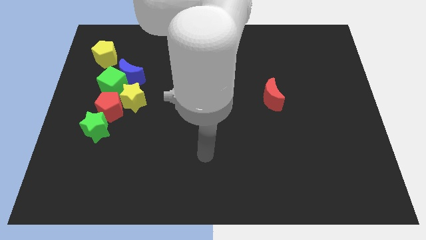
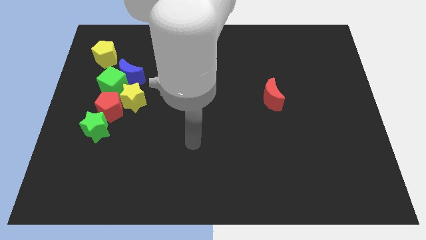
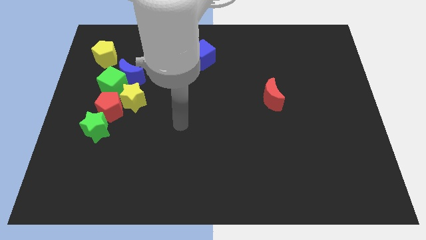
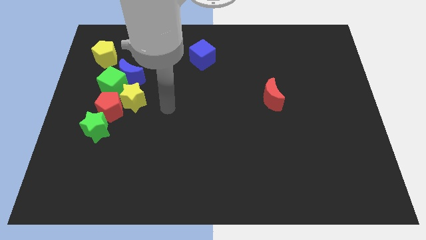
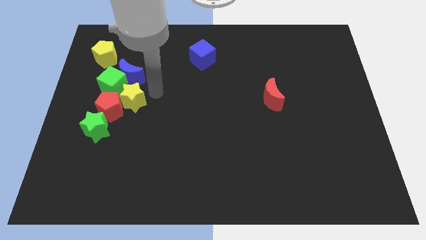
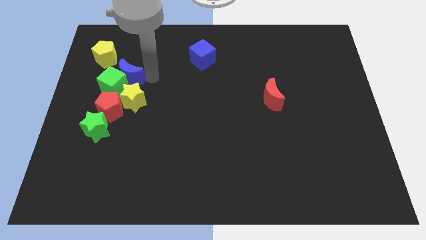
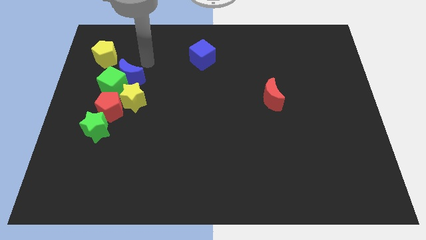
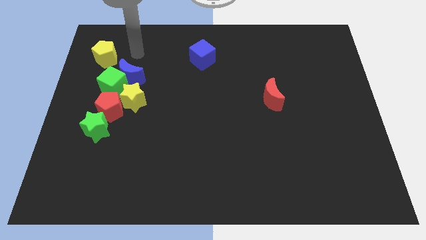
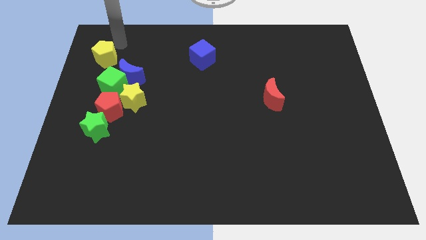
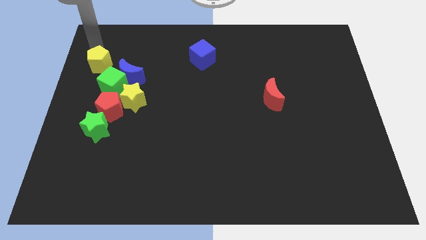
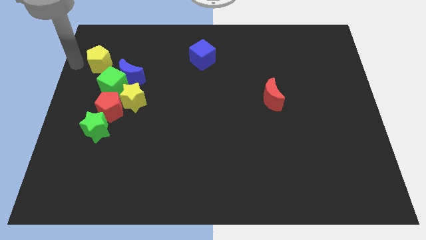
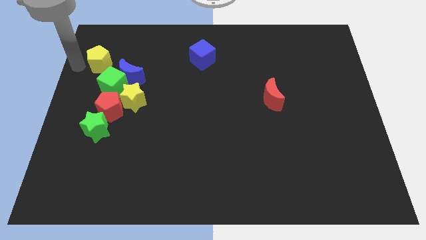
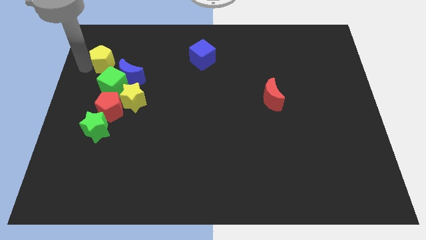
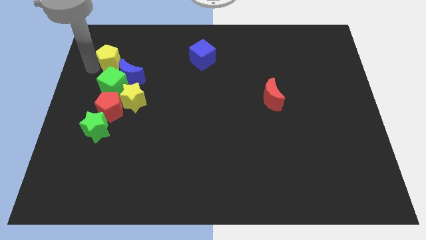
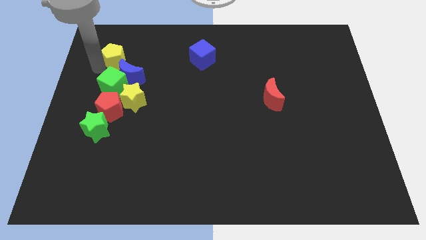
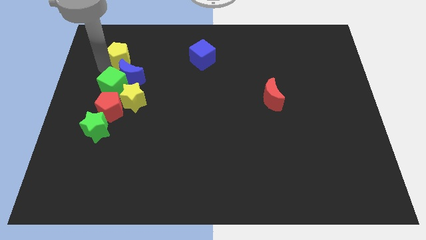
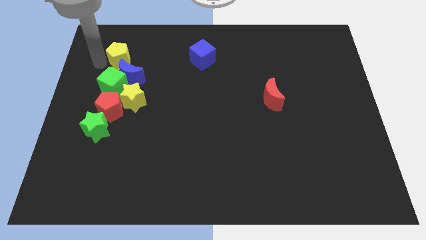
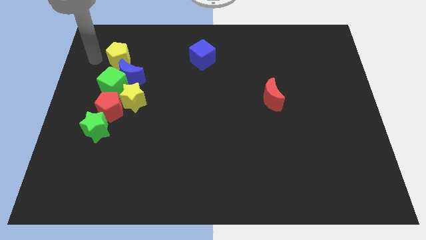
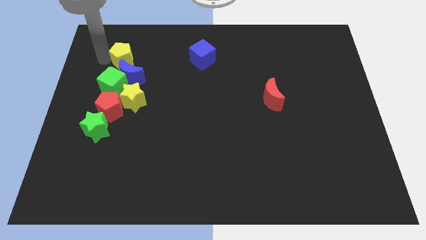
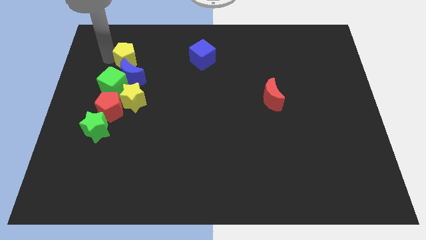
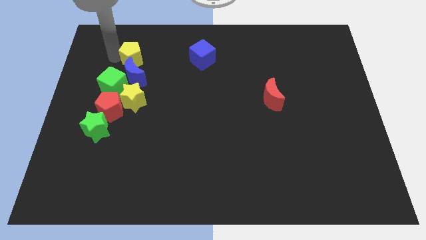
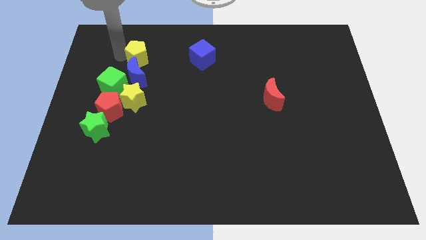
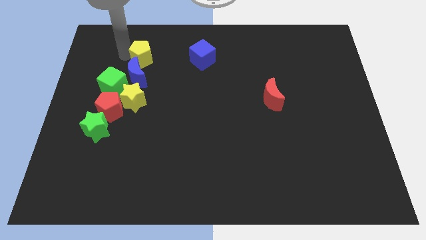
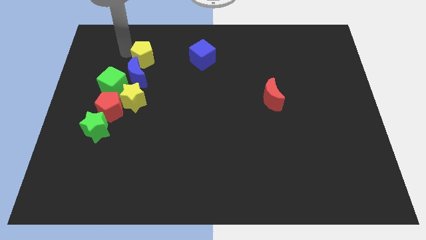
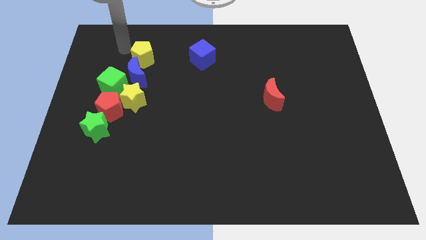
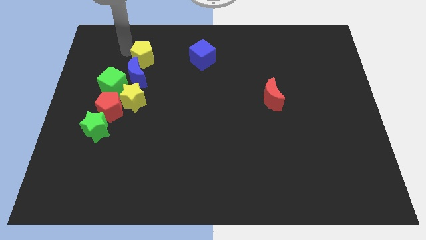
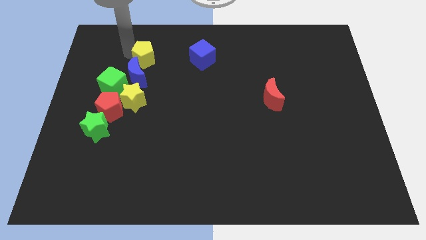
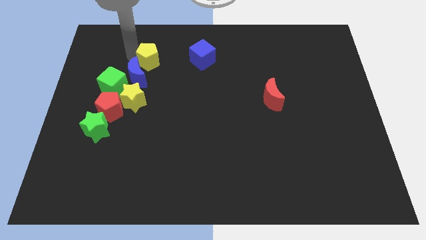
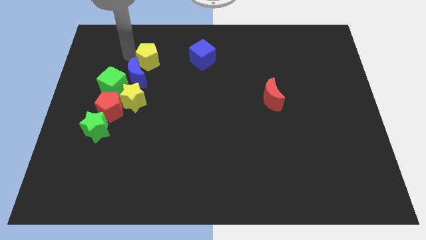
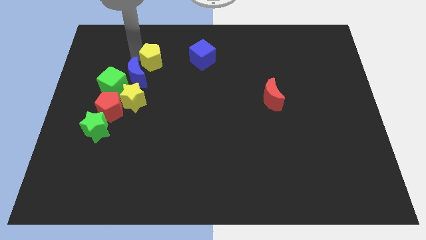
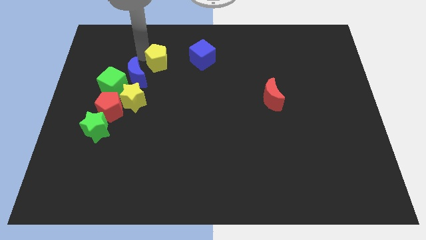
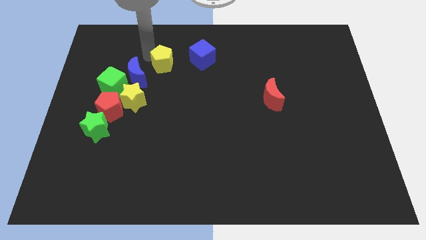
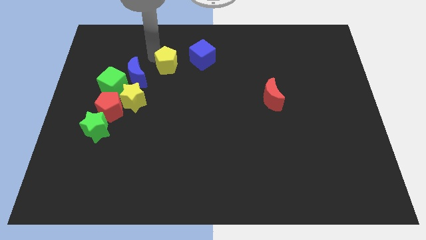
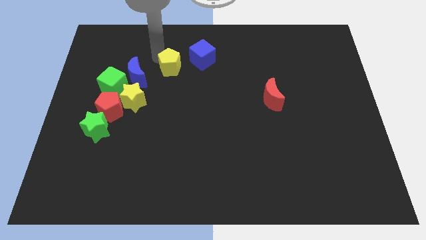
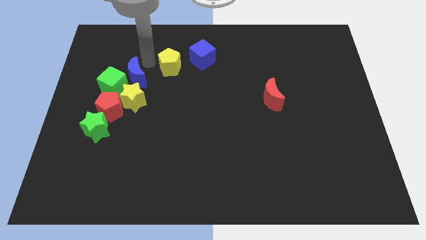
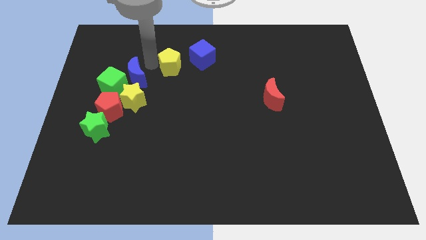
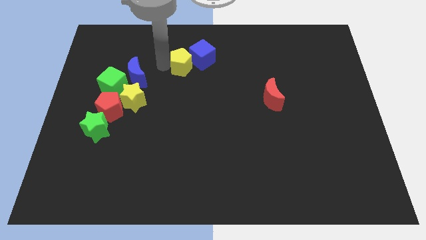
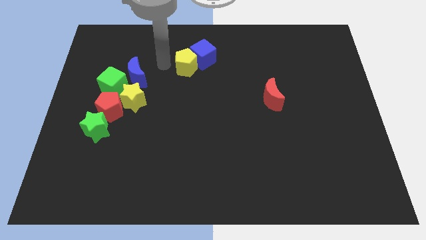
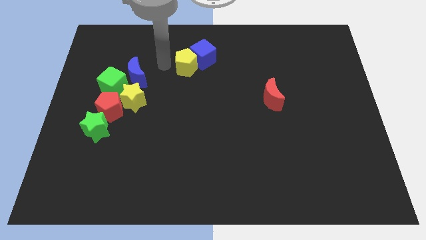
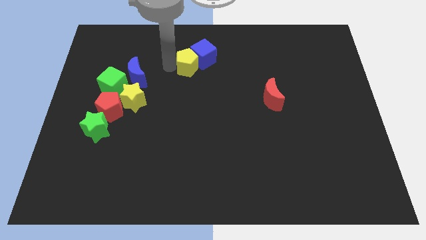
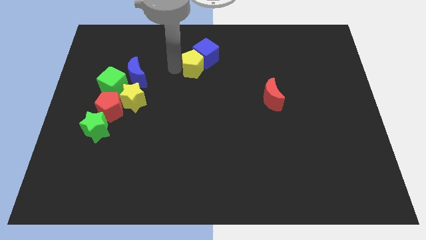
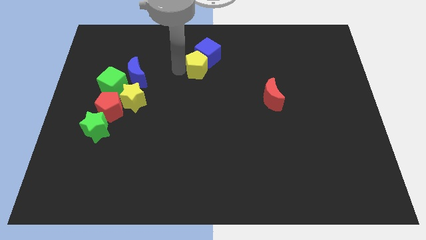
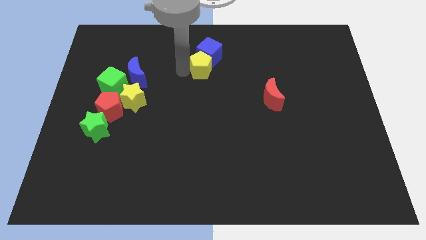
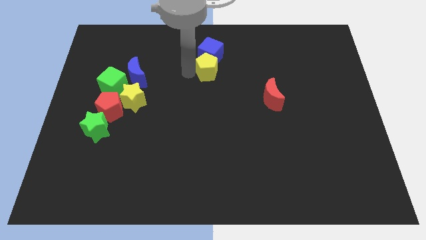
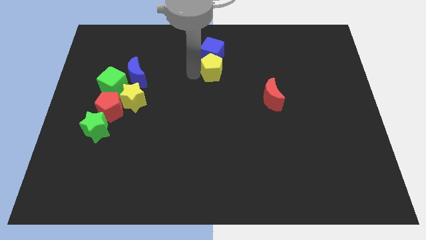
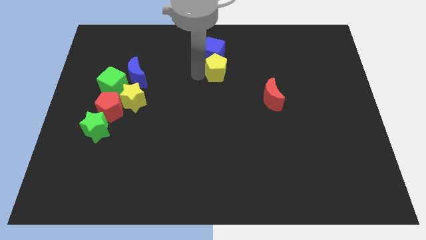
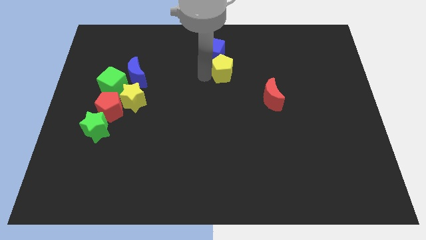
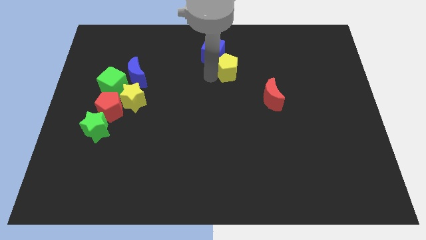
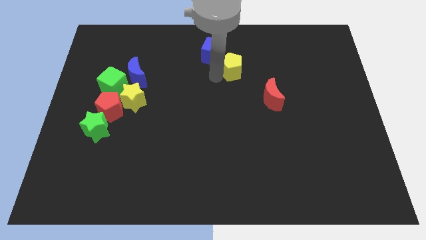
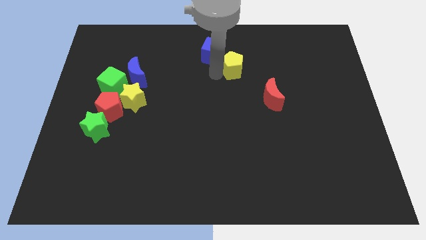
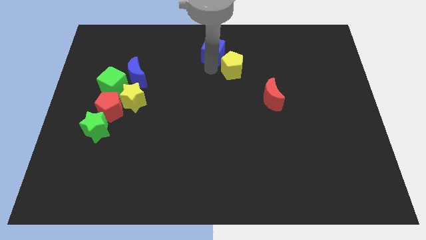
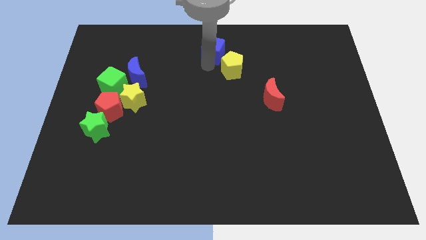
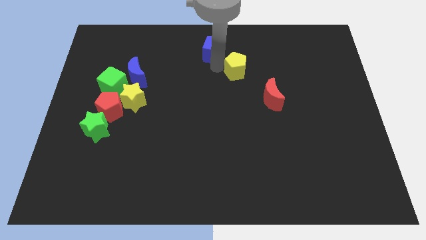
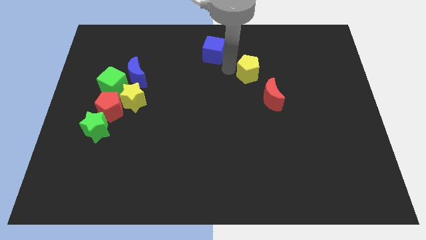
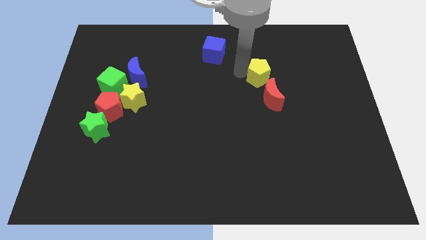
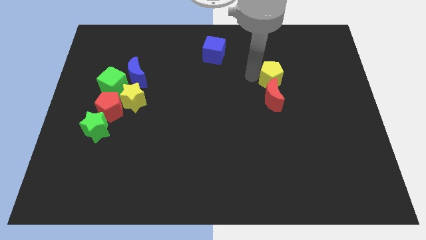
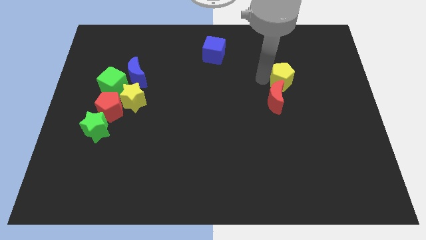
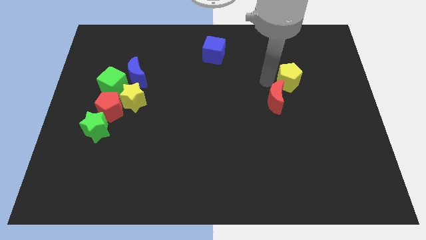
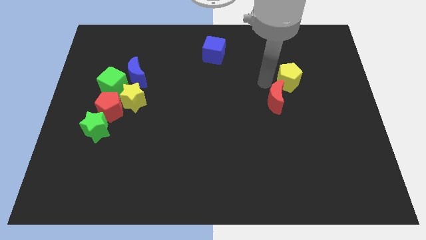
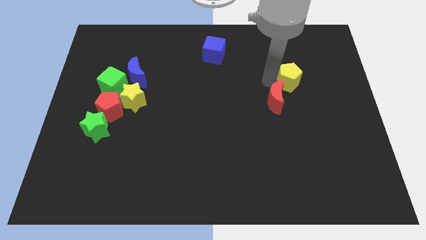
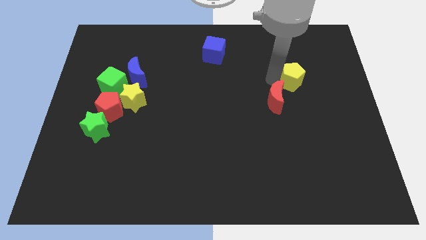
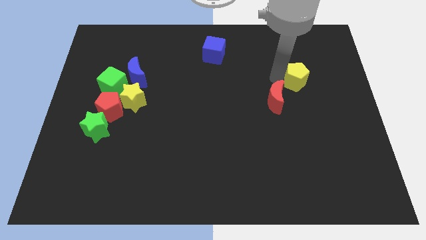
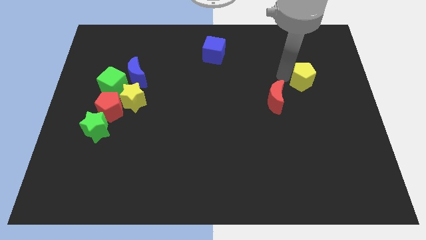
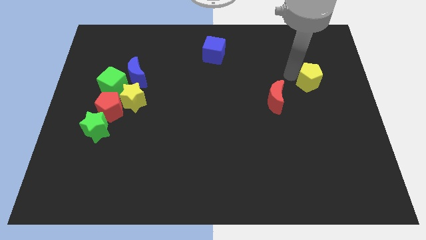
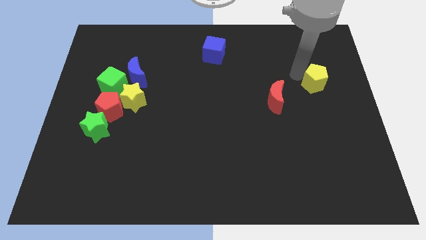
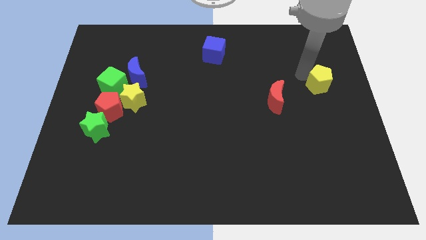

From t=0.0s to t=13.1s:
move the yellow pentagon to the right side
